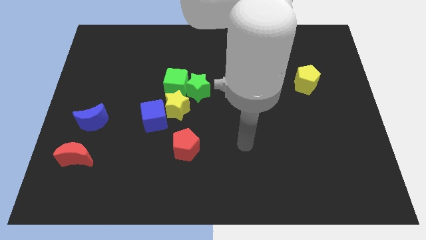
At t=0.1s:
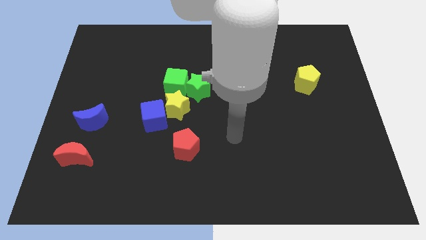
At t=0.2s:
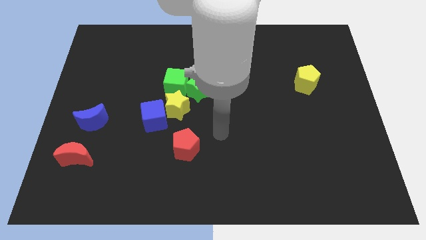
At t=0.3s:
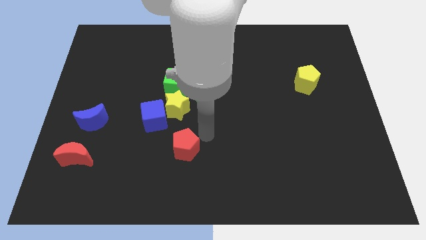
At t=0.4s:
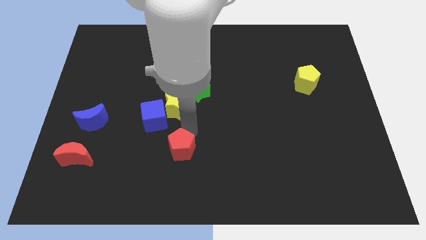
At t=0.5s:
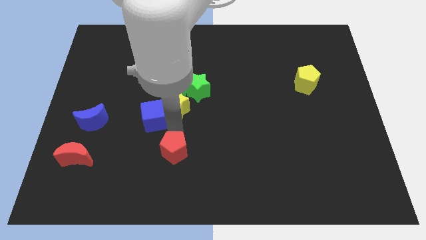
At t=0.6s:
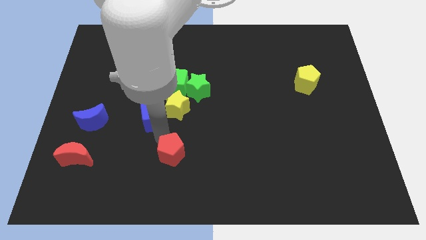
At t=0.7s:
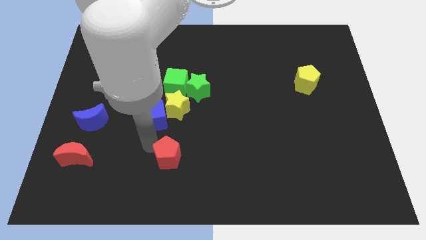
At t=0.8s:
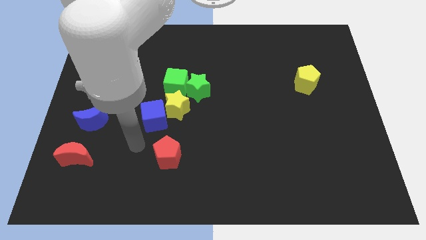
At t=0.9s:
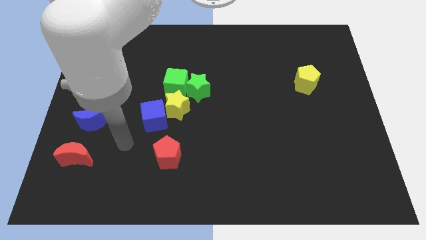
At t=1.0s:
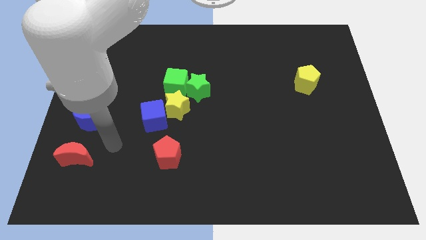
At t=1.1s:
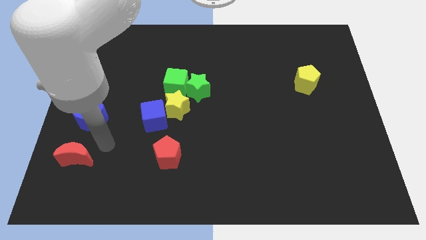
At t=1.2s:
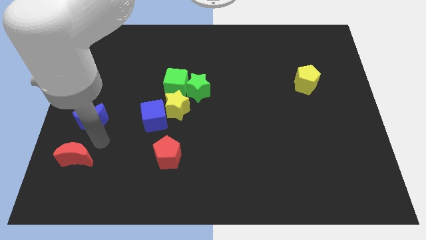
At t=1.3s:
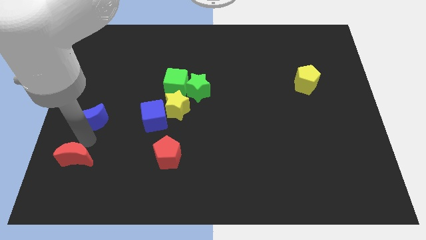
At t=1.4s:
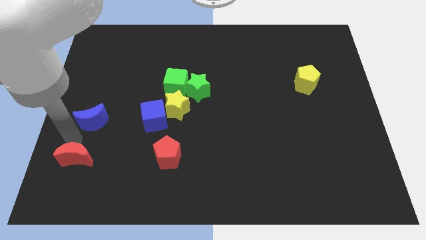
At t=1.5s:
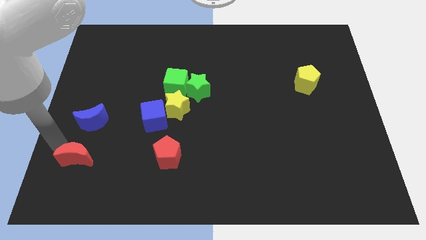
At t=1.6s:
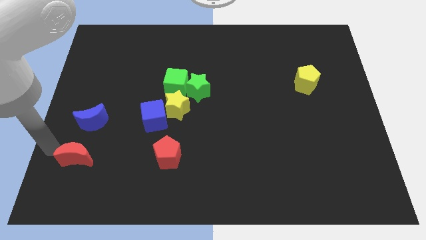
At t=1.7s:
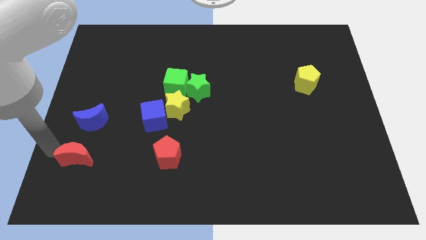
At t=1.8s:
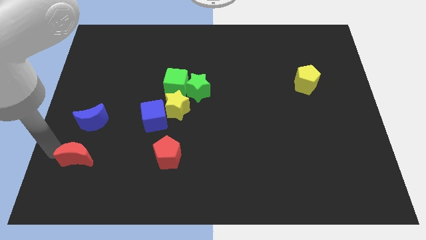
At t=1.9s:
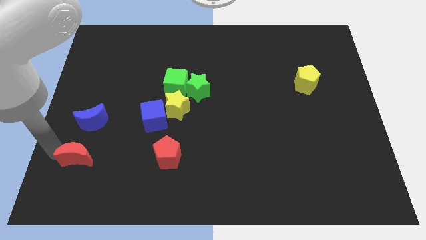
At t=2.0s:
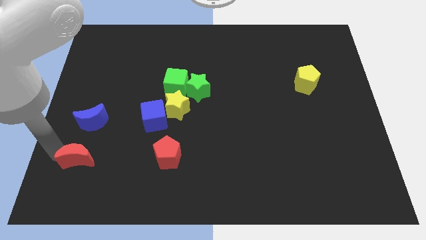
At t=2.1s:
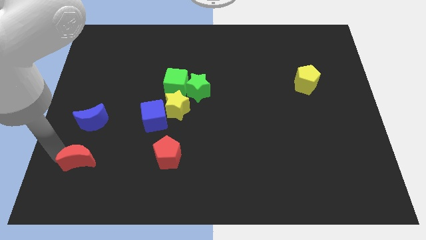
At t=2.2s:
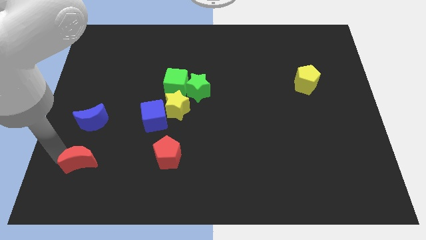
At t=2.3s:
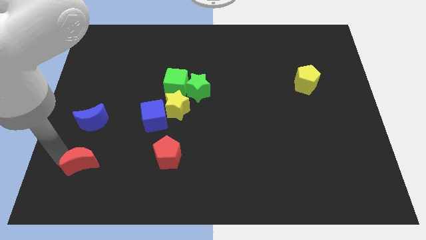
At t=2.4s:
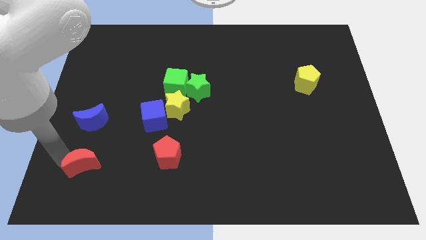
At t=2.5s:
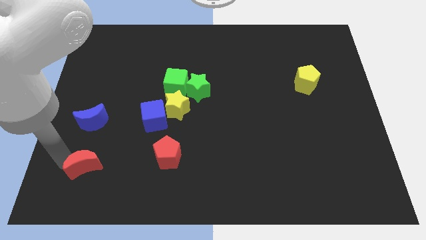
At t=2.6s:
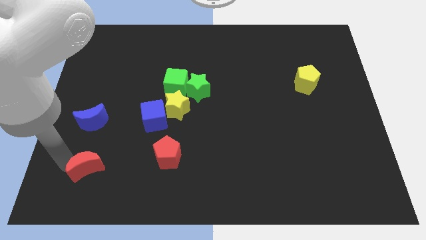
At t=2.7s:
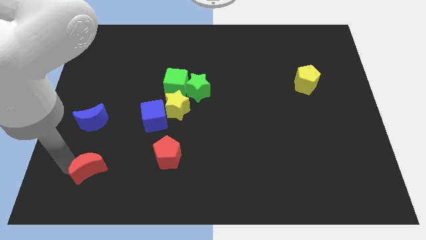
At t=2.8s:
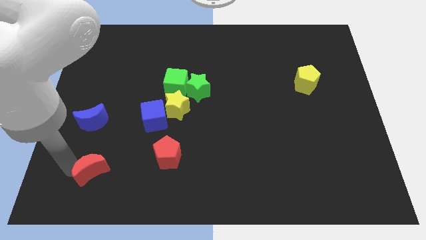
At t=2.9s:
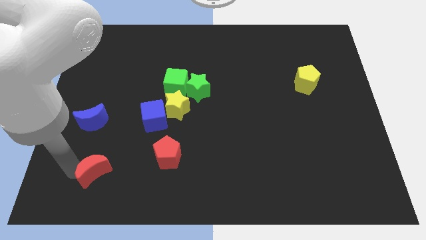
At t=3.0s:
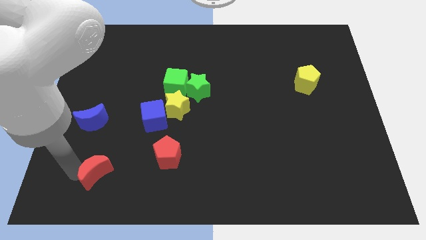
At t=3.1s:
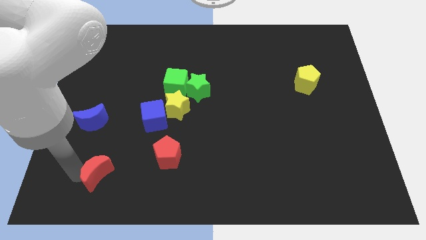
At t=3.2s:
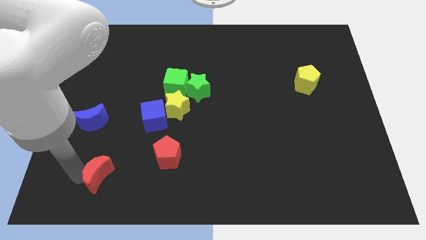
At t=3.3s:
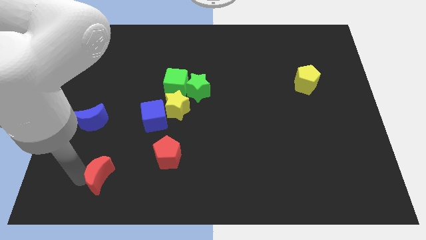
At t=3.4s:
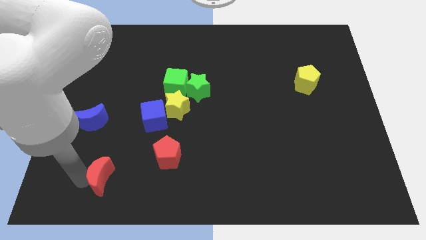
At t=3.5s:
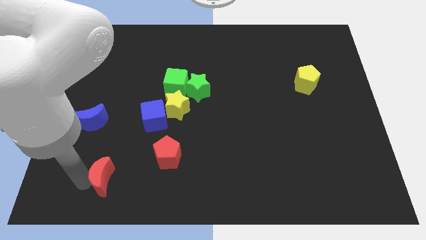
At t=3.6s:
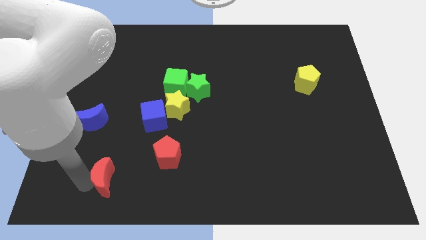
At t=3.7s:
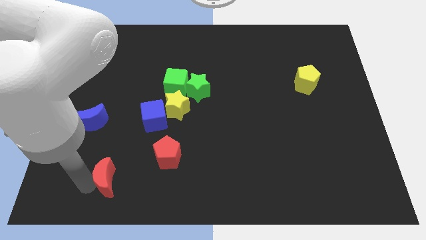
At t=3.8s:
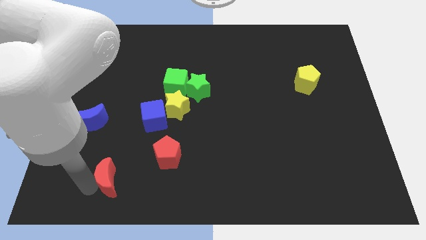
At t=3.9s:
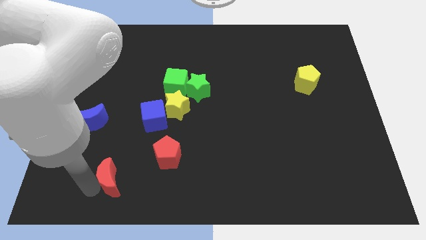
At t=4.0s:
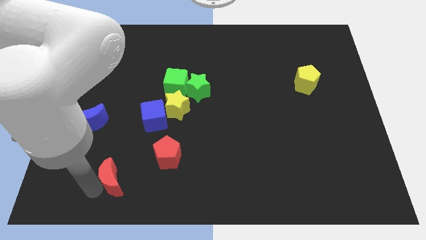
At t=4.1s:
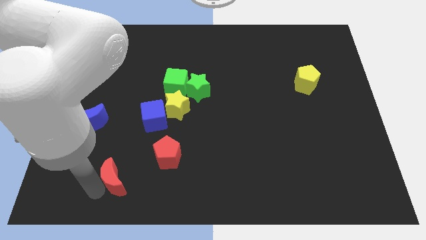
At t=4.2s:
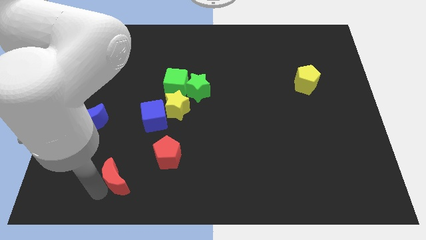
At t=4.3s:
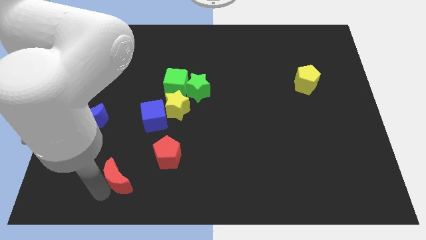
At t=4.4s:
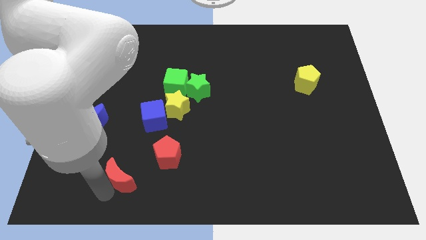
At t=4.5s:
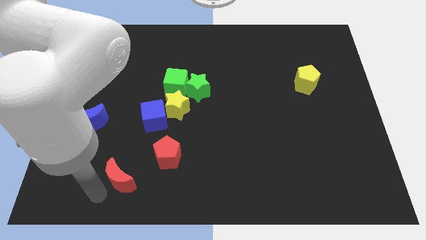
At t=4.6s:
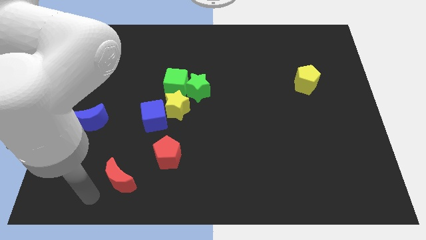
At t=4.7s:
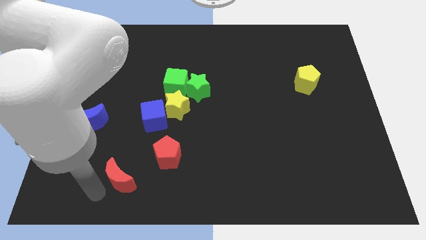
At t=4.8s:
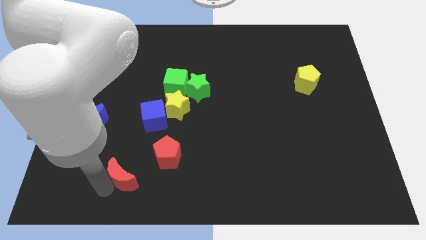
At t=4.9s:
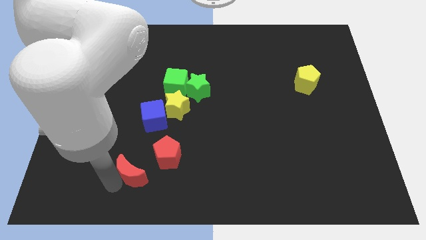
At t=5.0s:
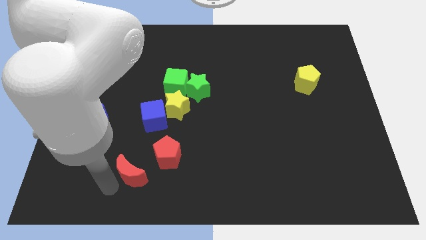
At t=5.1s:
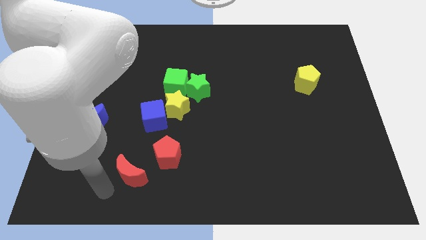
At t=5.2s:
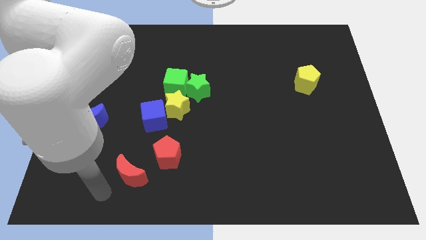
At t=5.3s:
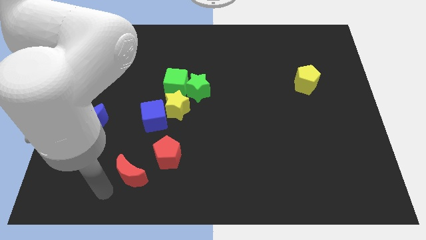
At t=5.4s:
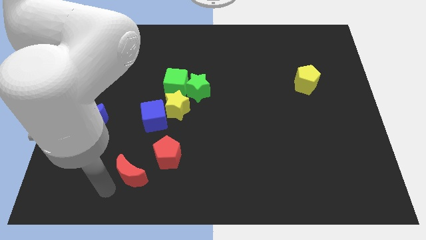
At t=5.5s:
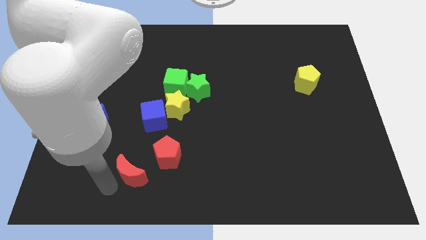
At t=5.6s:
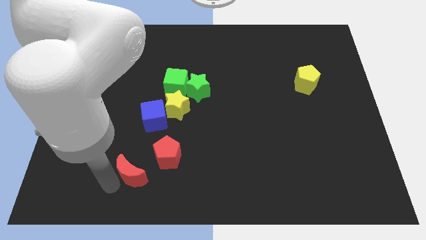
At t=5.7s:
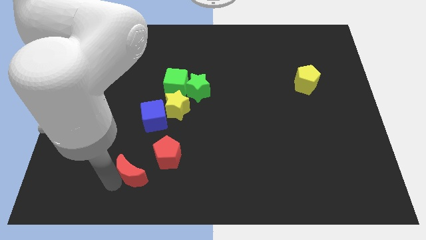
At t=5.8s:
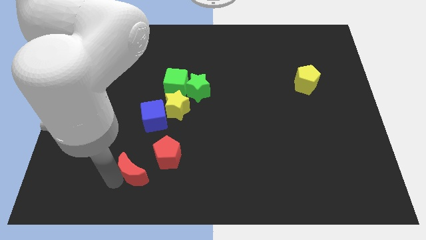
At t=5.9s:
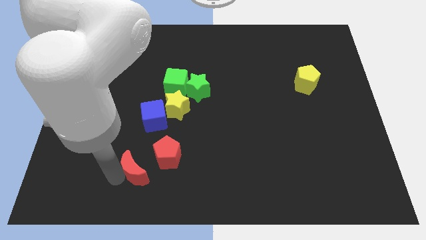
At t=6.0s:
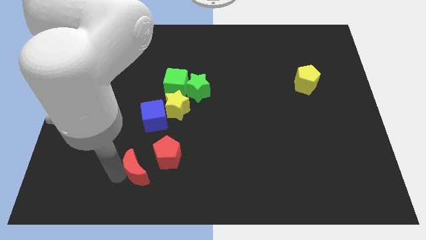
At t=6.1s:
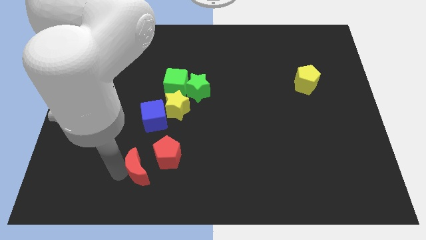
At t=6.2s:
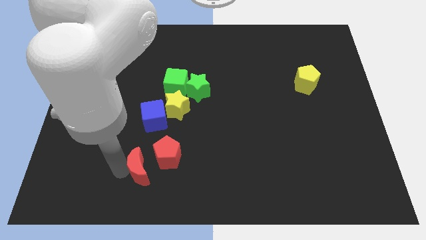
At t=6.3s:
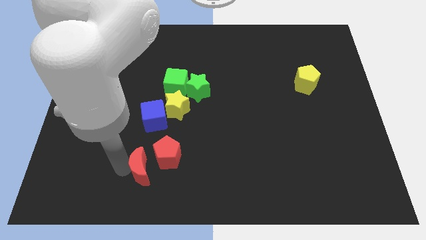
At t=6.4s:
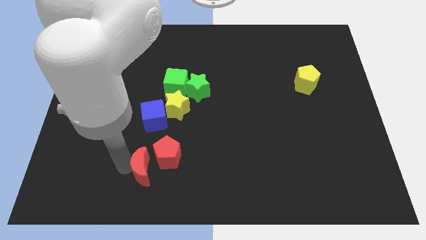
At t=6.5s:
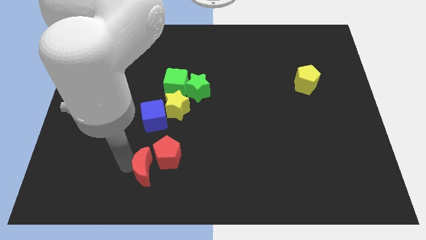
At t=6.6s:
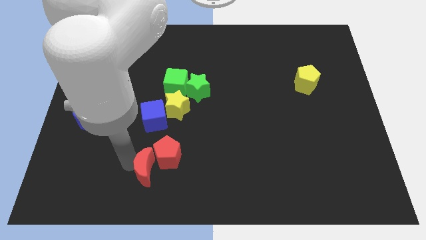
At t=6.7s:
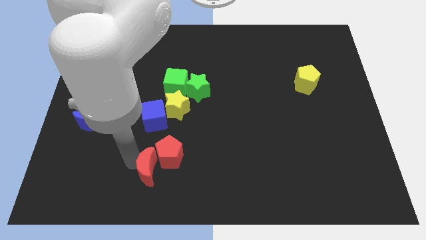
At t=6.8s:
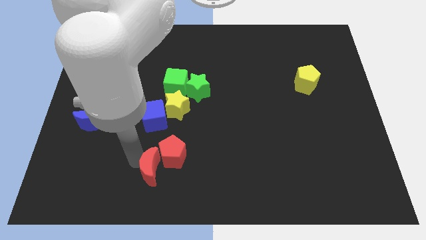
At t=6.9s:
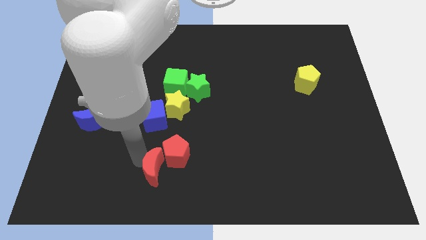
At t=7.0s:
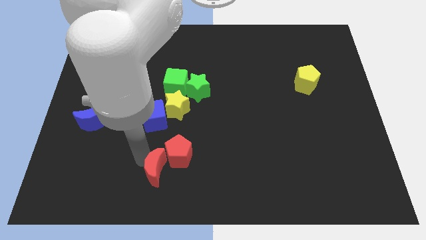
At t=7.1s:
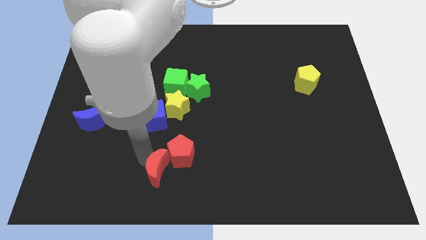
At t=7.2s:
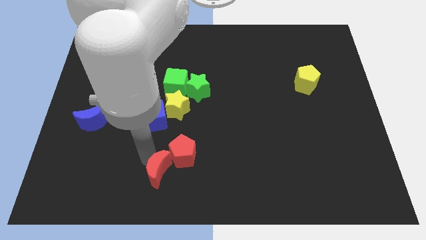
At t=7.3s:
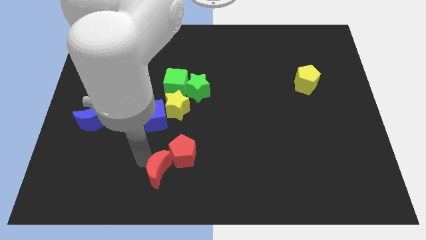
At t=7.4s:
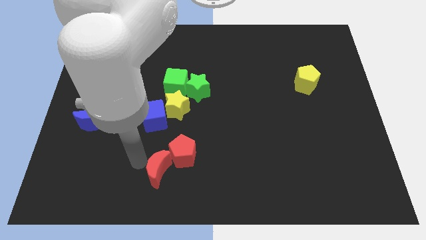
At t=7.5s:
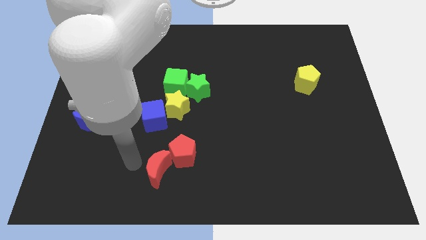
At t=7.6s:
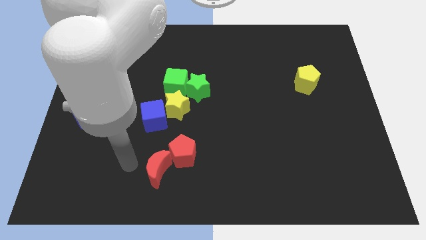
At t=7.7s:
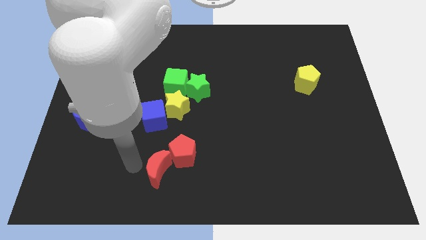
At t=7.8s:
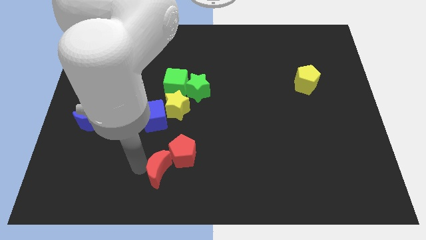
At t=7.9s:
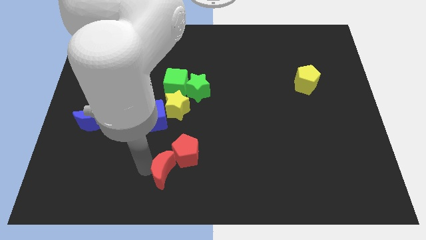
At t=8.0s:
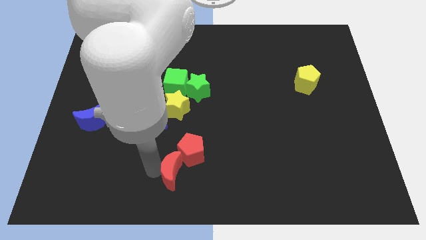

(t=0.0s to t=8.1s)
slide the red moon to the right
